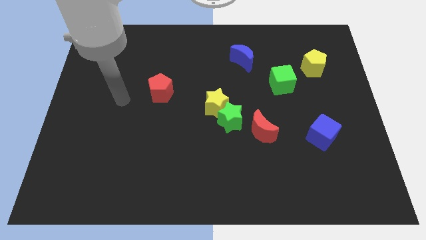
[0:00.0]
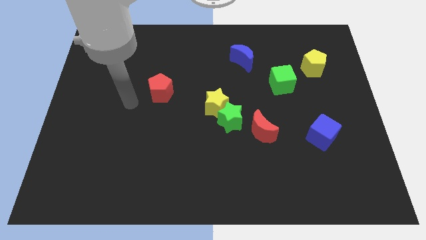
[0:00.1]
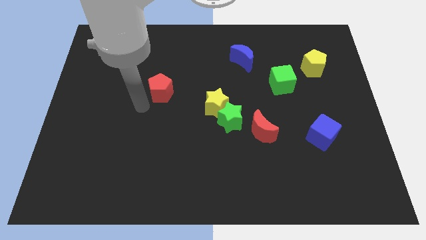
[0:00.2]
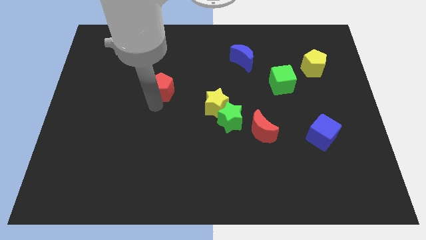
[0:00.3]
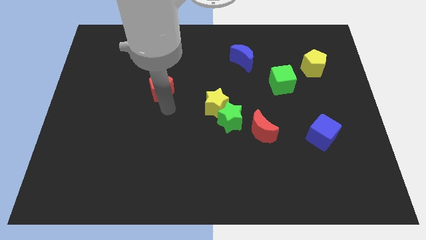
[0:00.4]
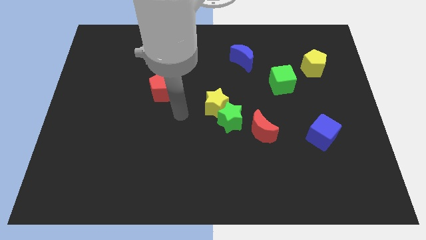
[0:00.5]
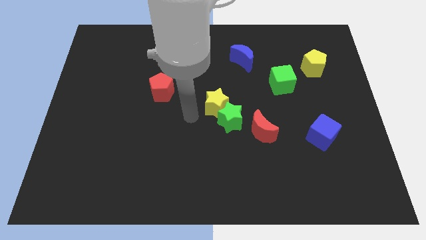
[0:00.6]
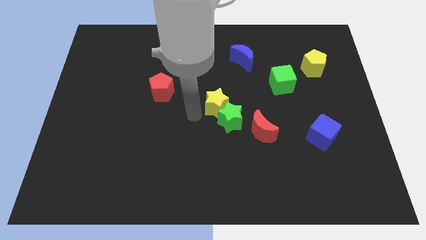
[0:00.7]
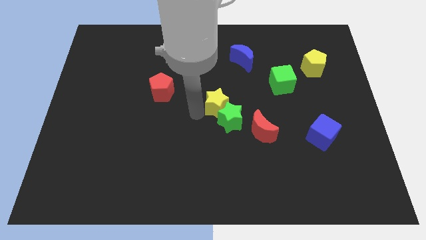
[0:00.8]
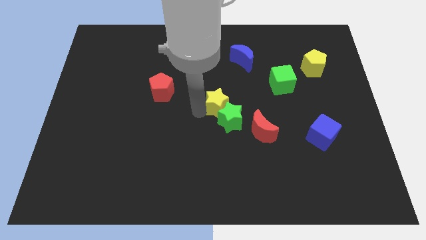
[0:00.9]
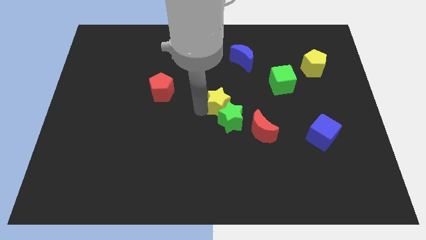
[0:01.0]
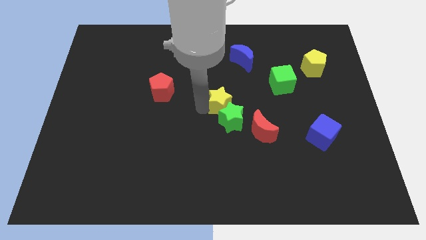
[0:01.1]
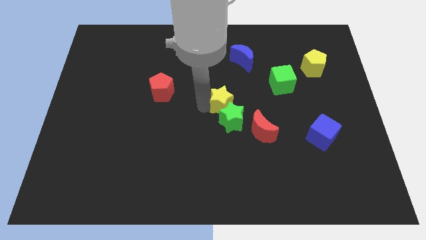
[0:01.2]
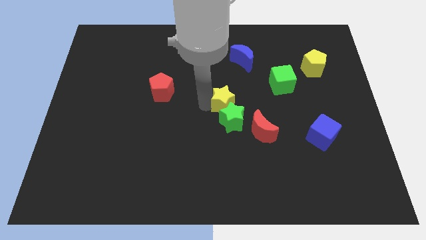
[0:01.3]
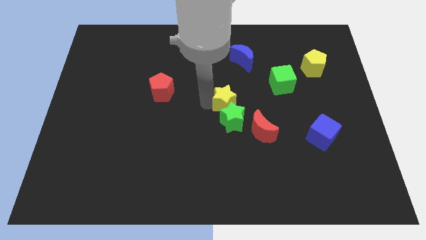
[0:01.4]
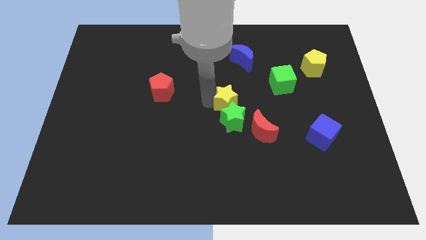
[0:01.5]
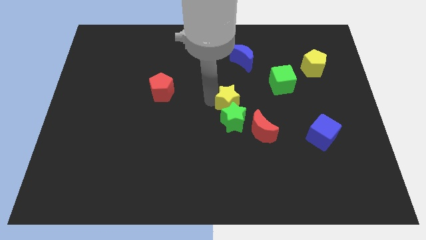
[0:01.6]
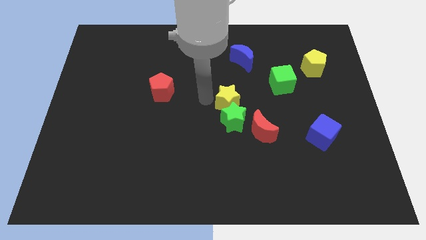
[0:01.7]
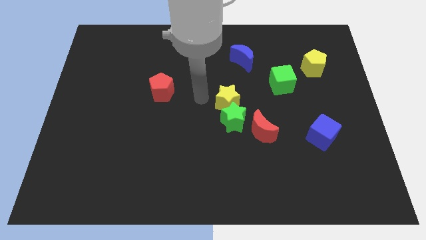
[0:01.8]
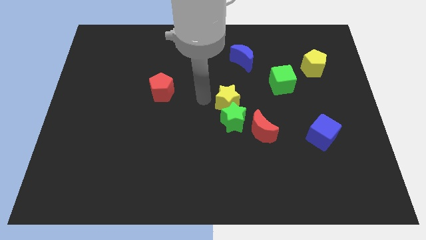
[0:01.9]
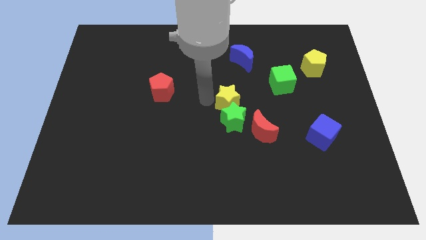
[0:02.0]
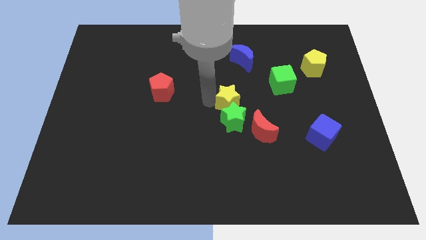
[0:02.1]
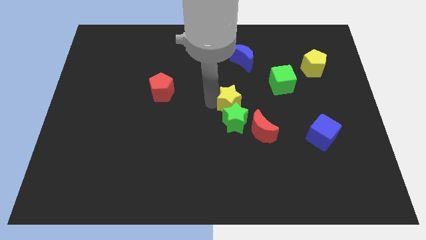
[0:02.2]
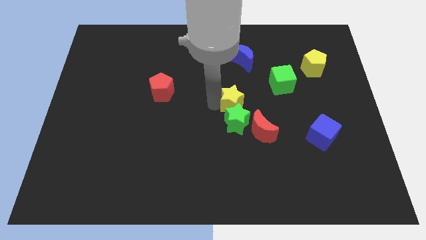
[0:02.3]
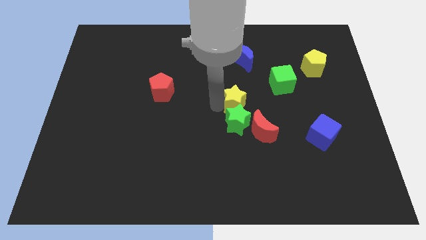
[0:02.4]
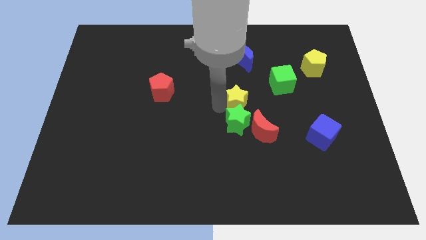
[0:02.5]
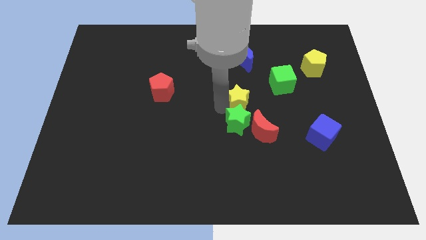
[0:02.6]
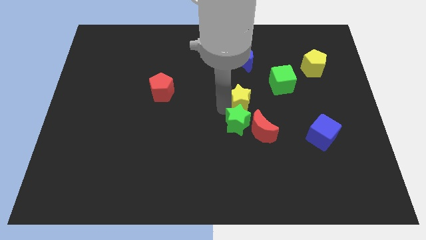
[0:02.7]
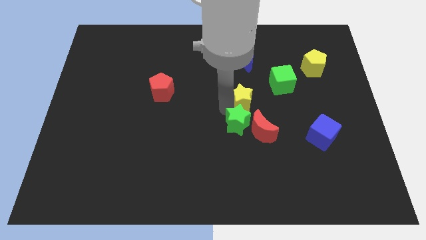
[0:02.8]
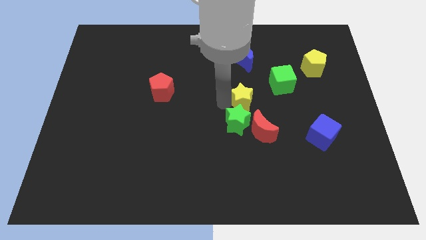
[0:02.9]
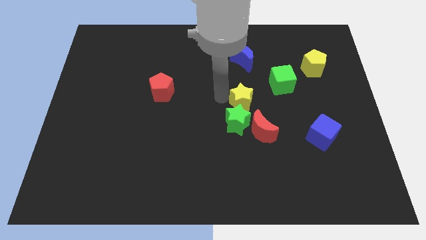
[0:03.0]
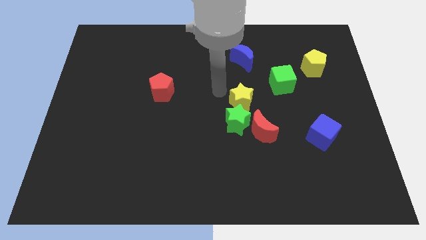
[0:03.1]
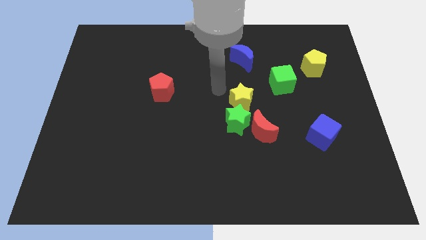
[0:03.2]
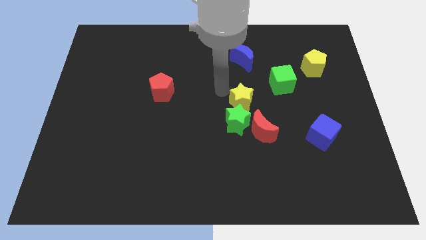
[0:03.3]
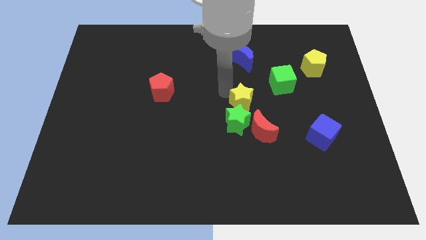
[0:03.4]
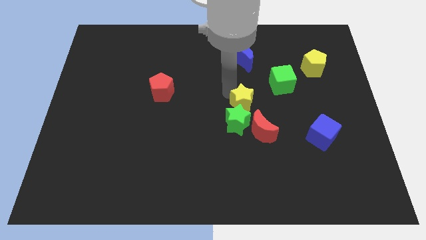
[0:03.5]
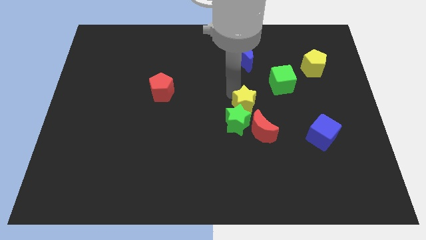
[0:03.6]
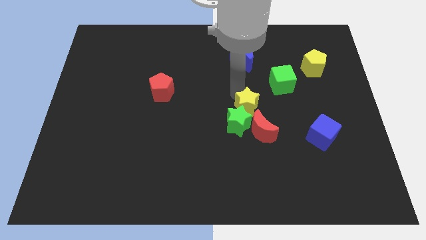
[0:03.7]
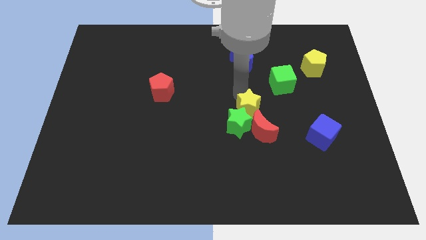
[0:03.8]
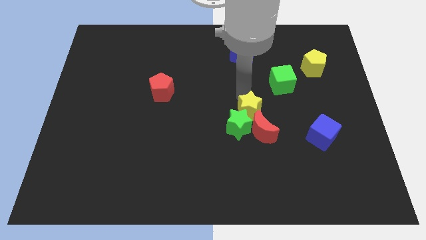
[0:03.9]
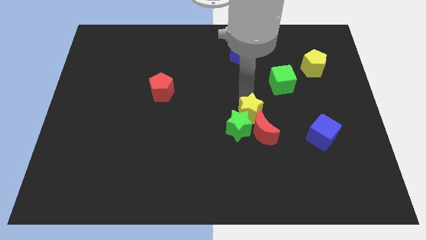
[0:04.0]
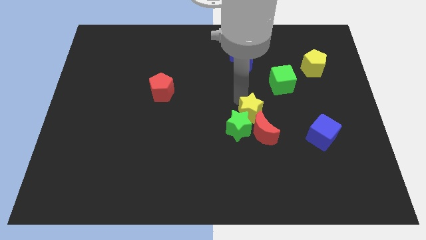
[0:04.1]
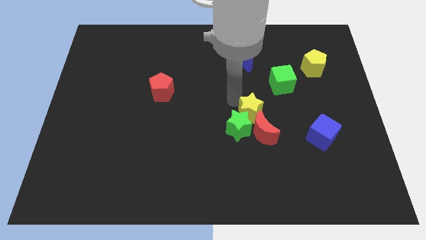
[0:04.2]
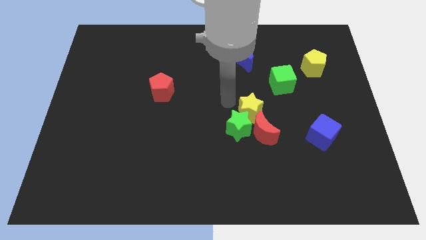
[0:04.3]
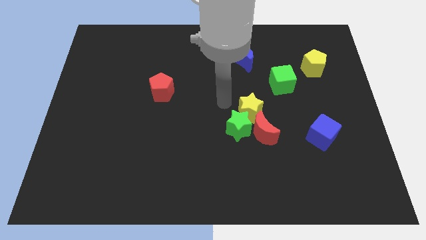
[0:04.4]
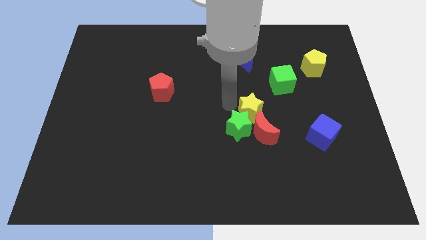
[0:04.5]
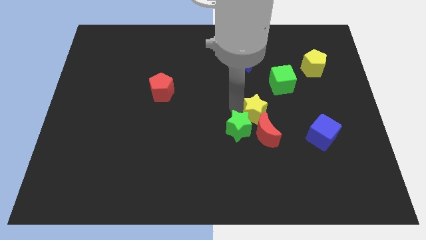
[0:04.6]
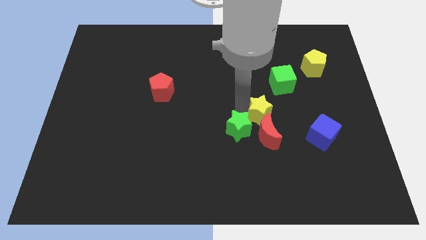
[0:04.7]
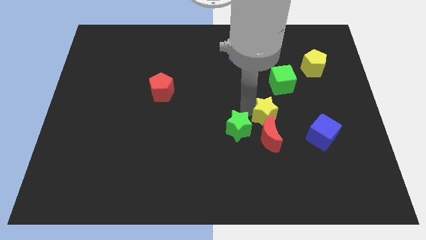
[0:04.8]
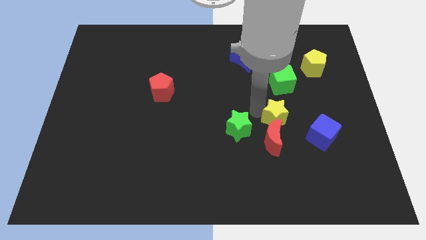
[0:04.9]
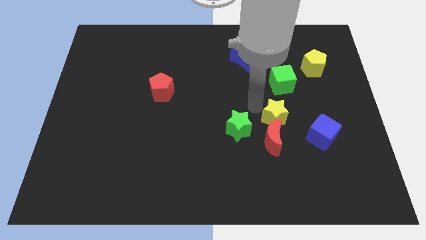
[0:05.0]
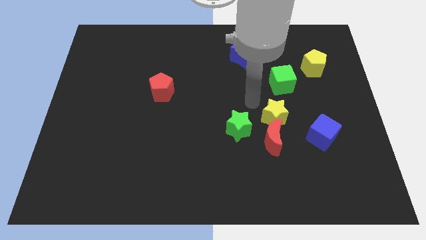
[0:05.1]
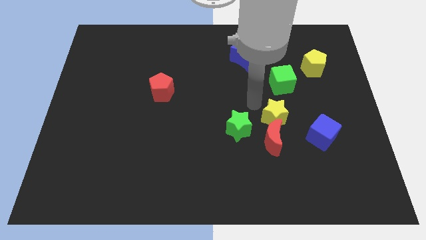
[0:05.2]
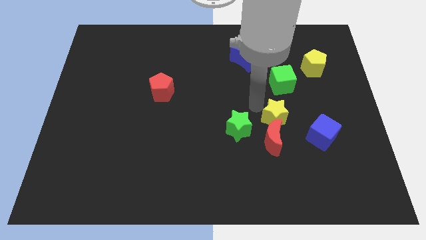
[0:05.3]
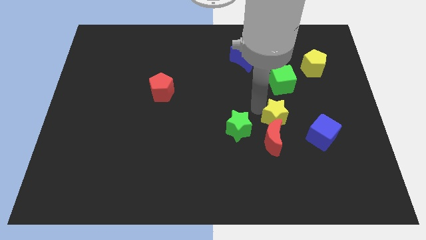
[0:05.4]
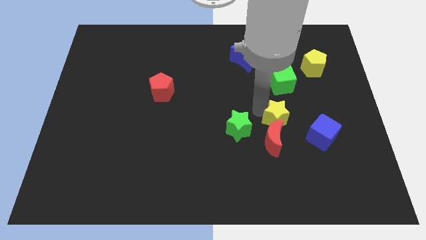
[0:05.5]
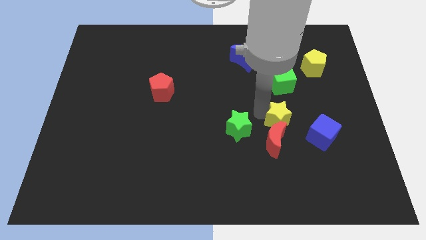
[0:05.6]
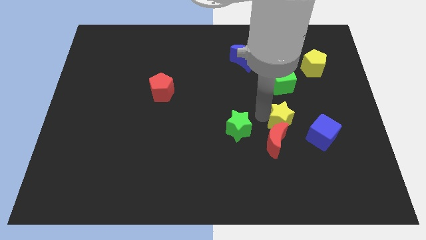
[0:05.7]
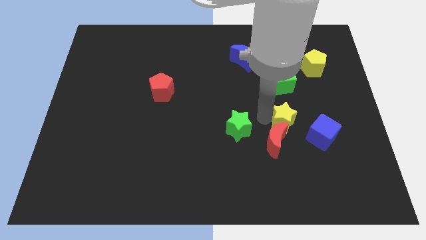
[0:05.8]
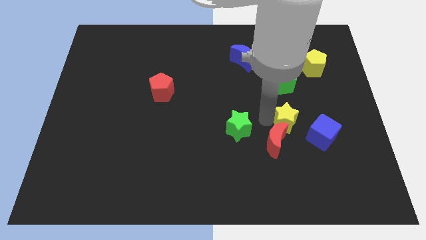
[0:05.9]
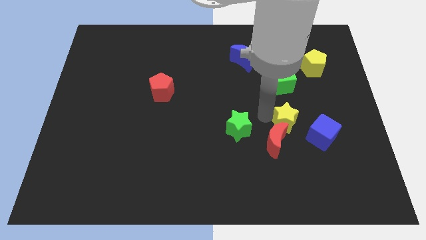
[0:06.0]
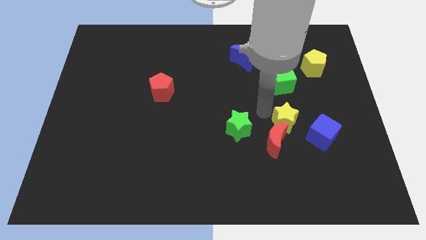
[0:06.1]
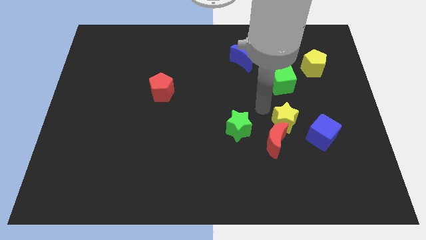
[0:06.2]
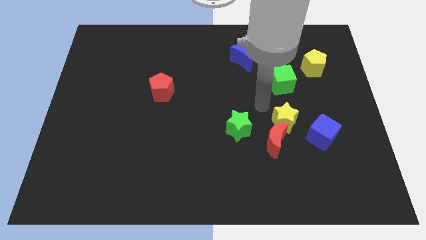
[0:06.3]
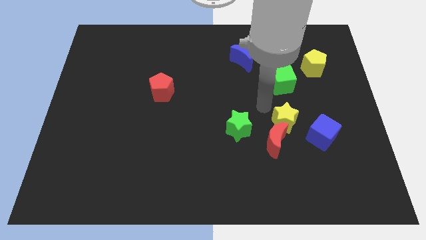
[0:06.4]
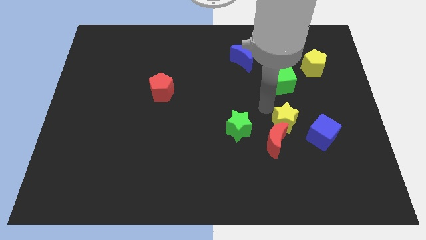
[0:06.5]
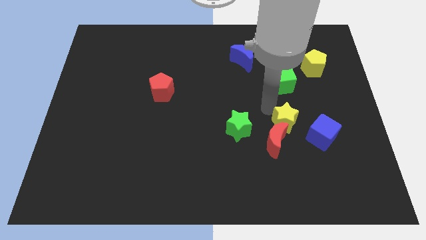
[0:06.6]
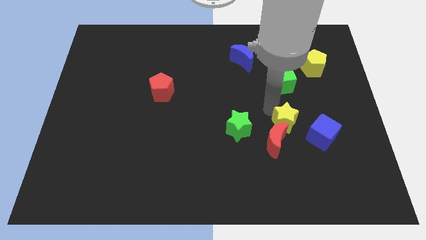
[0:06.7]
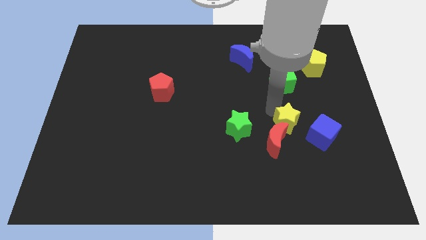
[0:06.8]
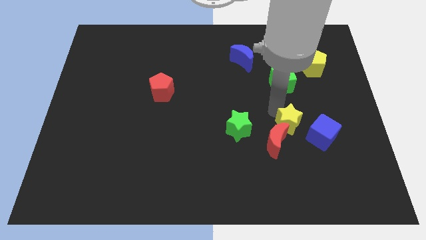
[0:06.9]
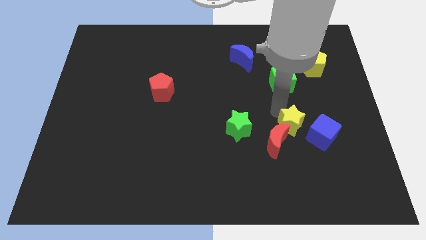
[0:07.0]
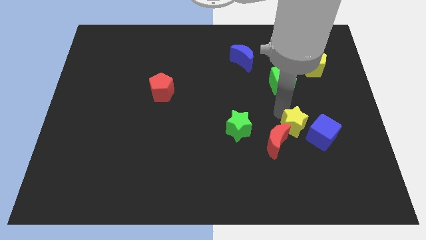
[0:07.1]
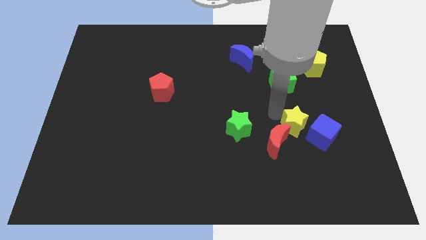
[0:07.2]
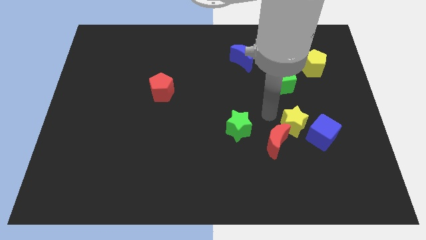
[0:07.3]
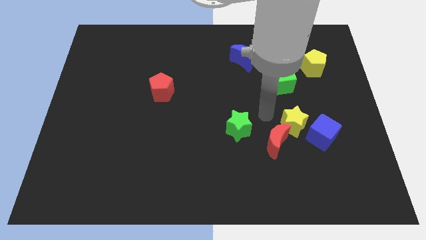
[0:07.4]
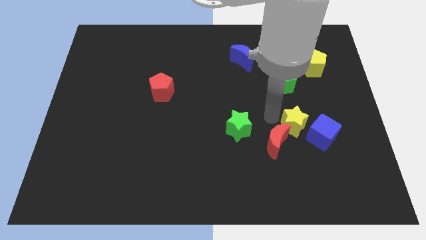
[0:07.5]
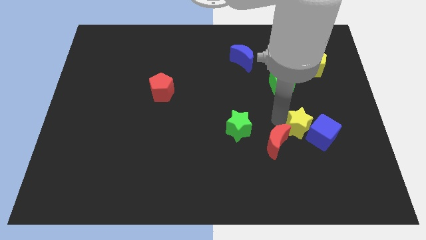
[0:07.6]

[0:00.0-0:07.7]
slide the yellow star close to the blue cube
